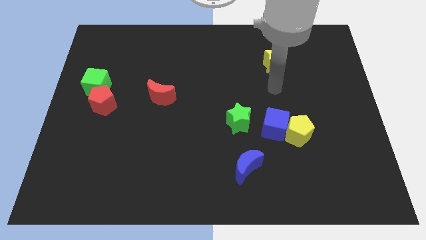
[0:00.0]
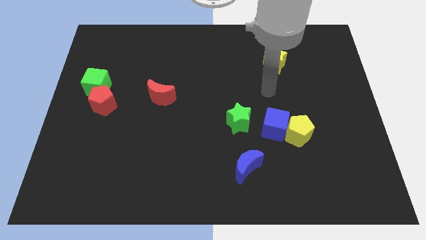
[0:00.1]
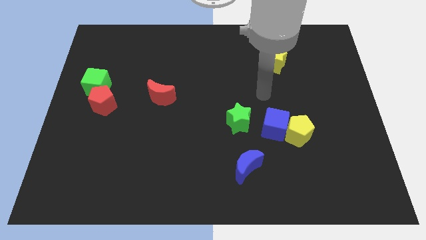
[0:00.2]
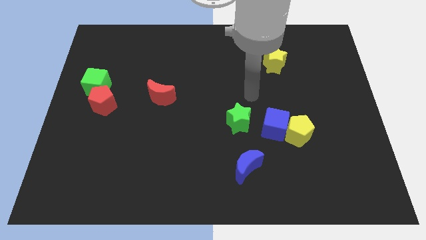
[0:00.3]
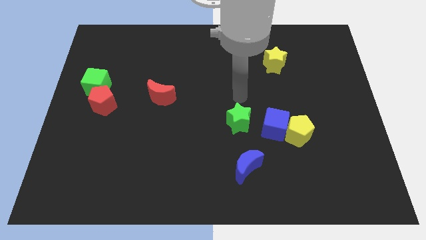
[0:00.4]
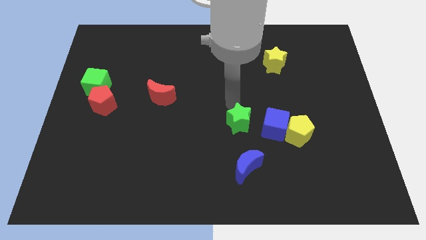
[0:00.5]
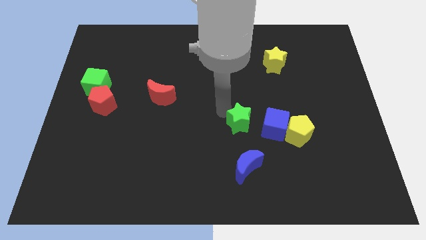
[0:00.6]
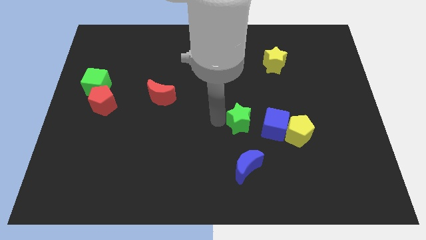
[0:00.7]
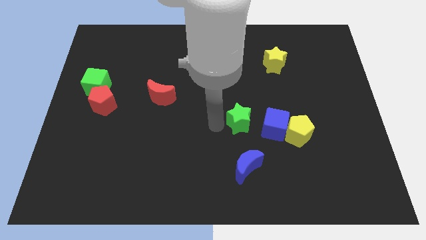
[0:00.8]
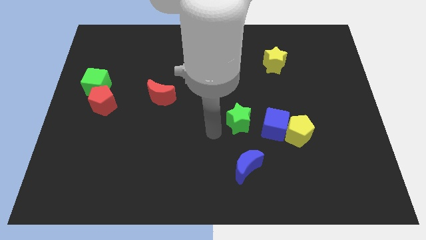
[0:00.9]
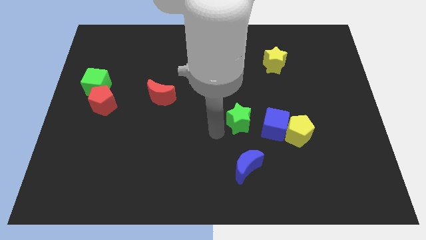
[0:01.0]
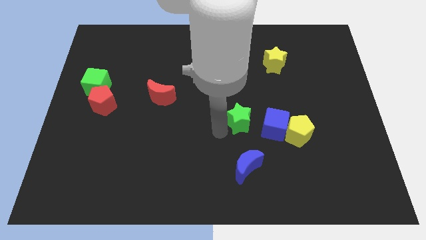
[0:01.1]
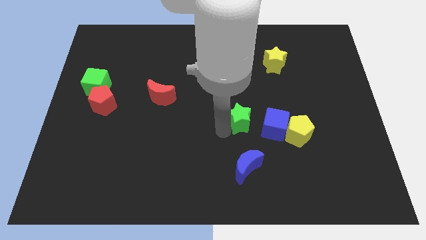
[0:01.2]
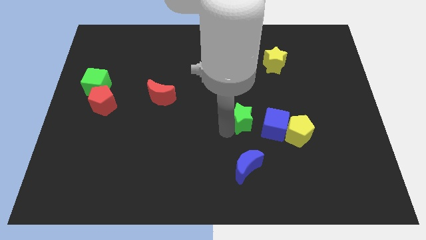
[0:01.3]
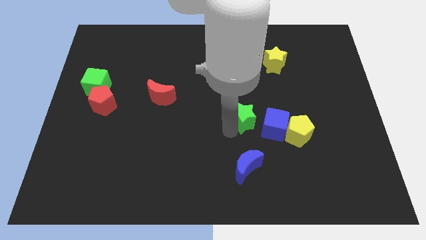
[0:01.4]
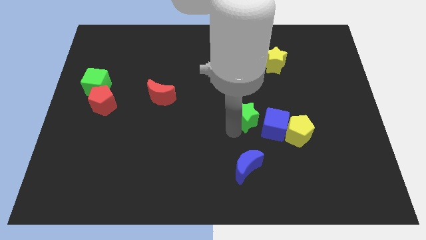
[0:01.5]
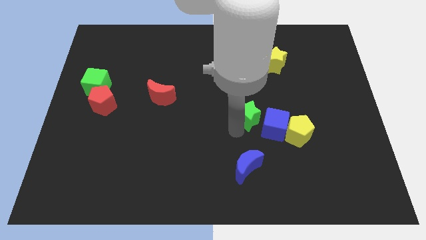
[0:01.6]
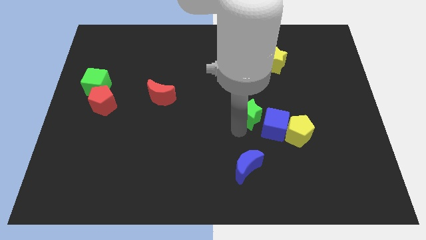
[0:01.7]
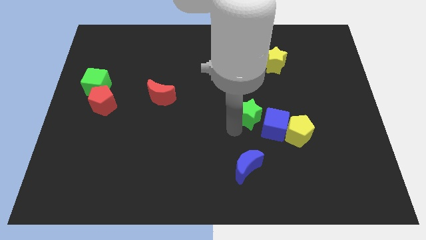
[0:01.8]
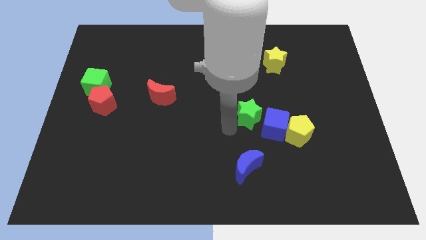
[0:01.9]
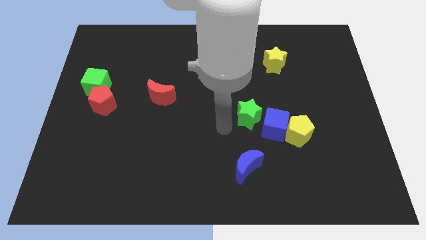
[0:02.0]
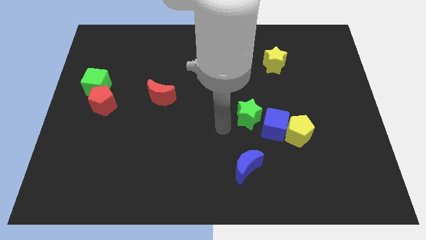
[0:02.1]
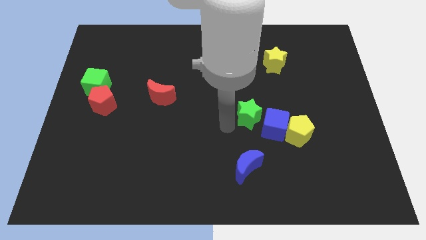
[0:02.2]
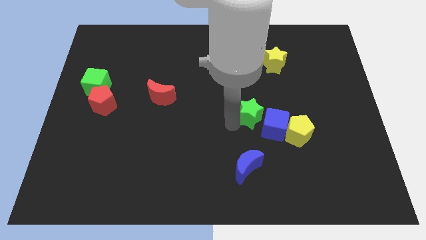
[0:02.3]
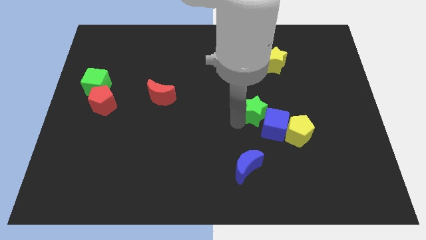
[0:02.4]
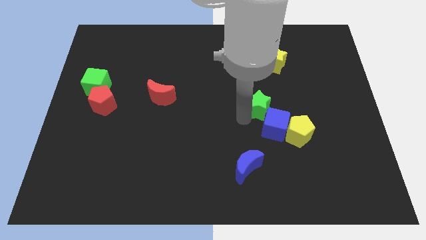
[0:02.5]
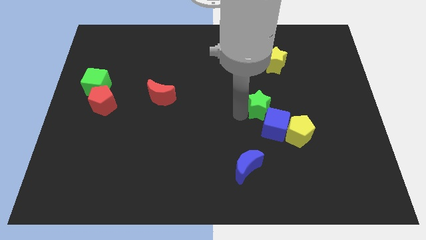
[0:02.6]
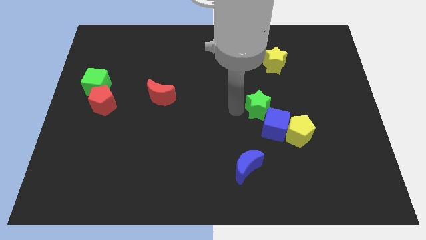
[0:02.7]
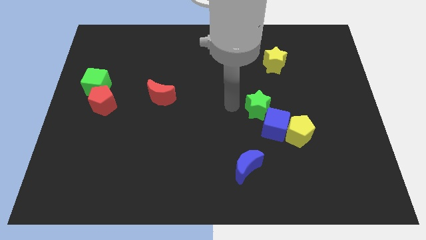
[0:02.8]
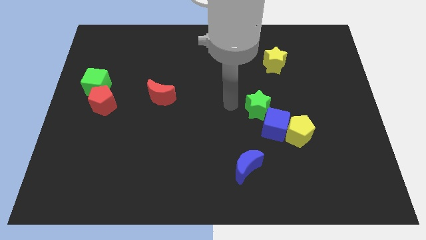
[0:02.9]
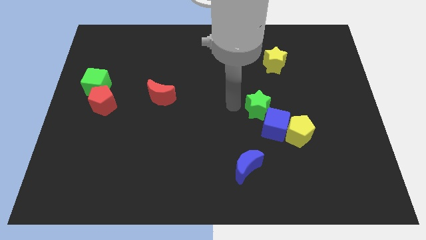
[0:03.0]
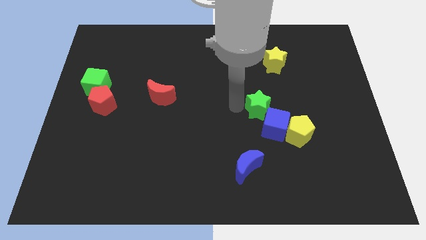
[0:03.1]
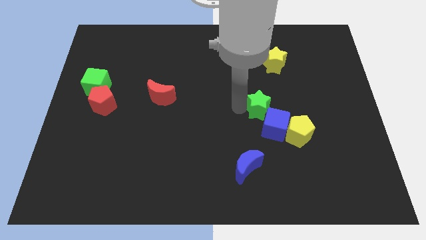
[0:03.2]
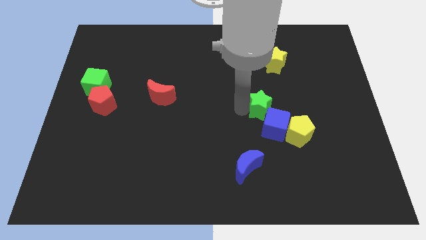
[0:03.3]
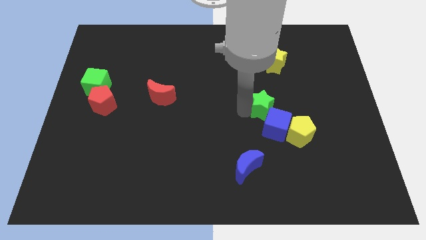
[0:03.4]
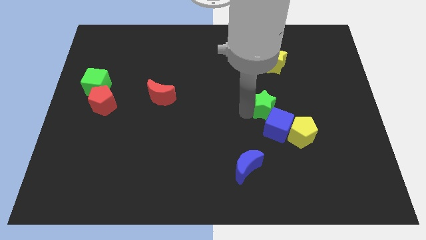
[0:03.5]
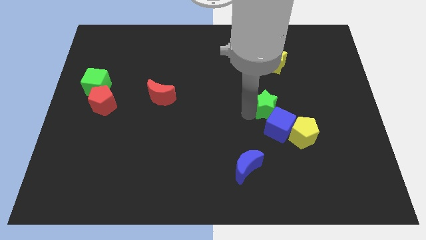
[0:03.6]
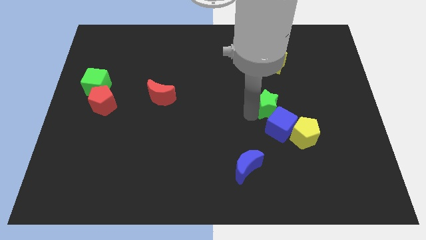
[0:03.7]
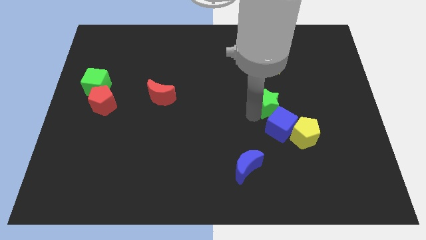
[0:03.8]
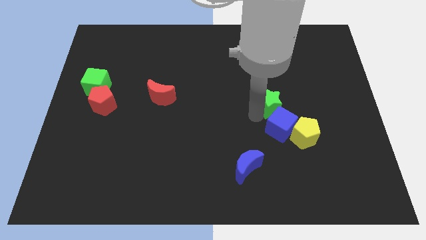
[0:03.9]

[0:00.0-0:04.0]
slide the green star right a bit

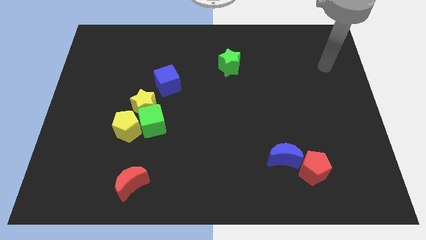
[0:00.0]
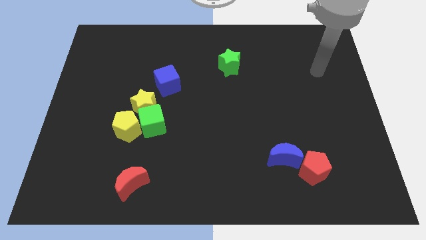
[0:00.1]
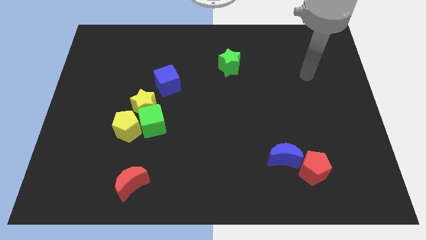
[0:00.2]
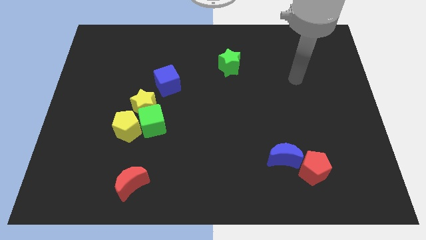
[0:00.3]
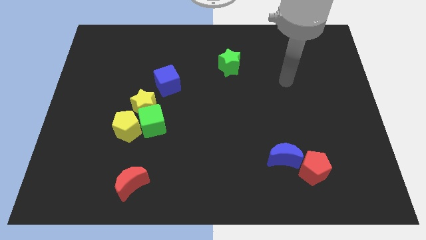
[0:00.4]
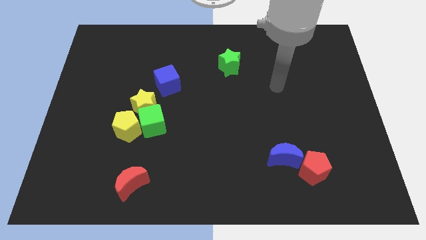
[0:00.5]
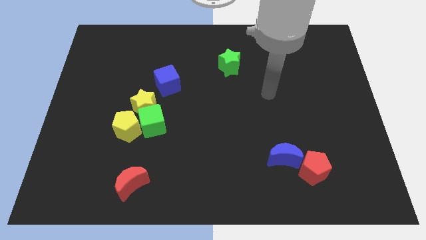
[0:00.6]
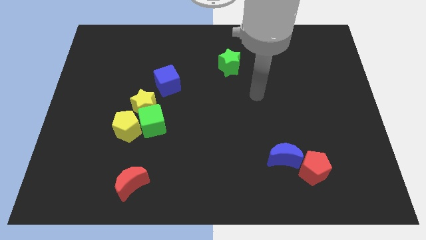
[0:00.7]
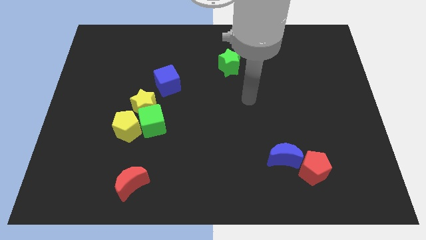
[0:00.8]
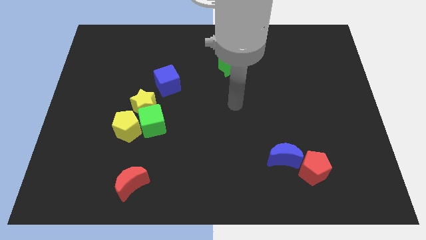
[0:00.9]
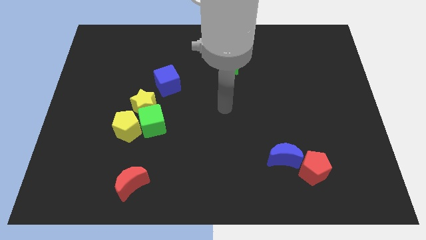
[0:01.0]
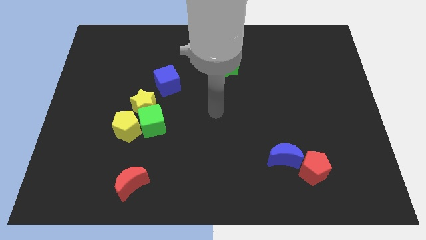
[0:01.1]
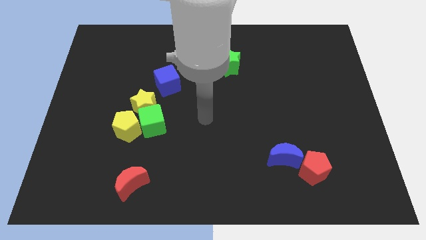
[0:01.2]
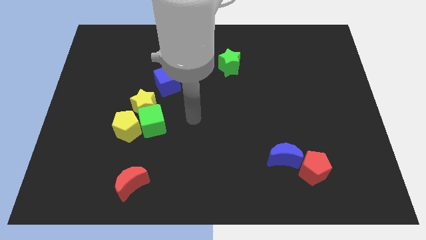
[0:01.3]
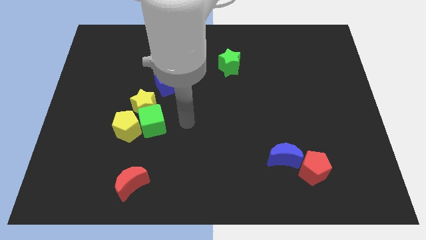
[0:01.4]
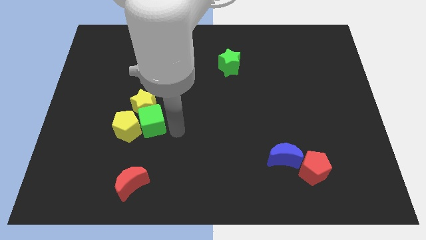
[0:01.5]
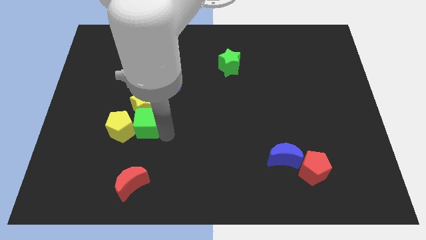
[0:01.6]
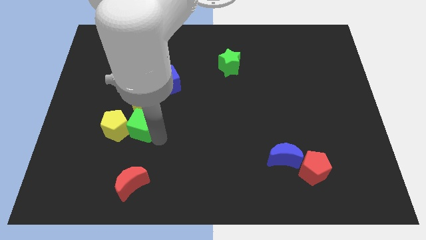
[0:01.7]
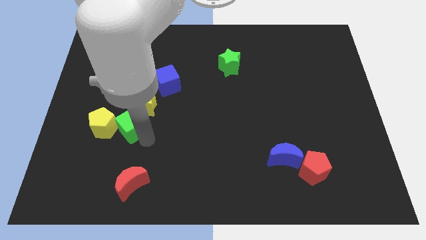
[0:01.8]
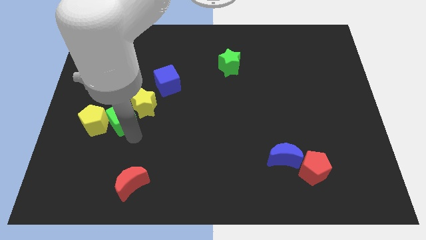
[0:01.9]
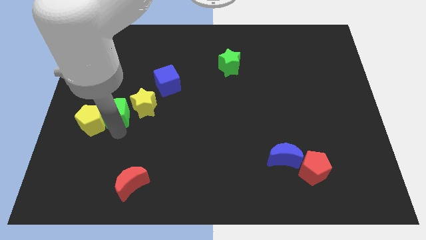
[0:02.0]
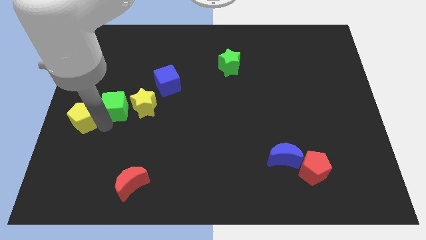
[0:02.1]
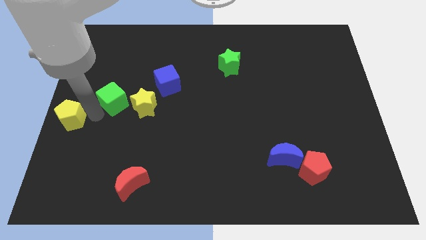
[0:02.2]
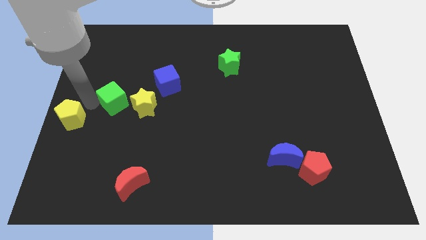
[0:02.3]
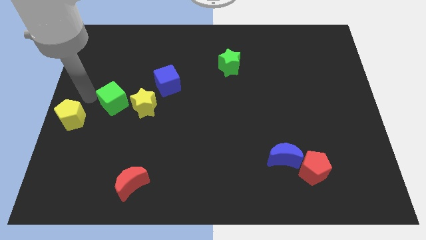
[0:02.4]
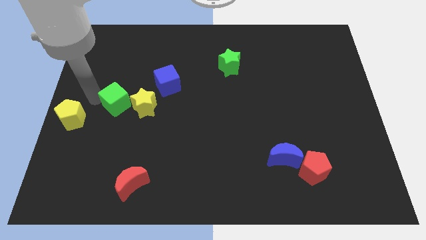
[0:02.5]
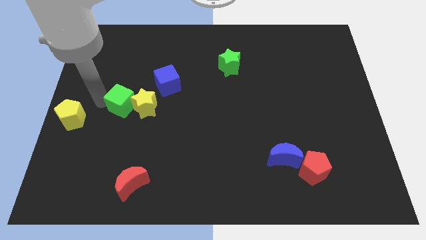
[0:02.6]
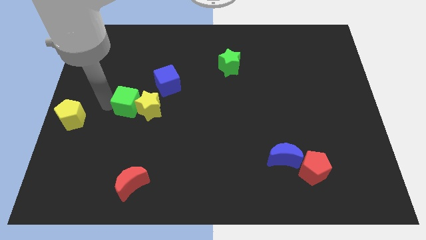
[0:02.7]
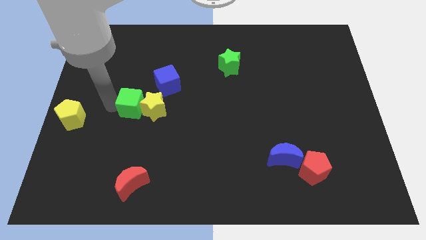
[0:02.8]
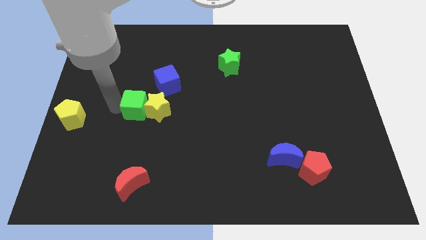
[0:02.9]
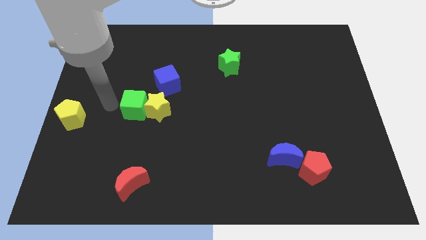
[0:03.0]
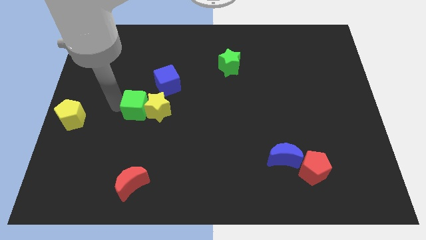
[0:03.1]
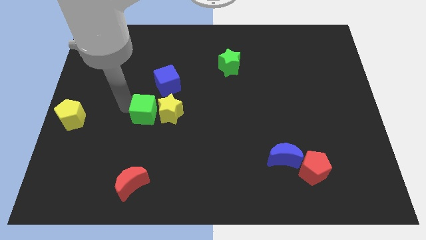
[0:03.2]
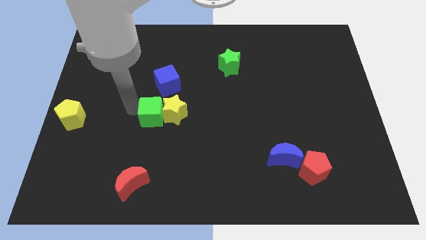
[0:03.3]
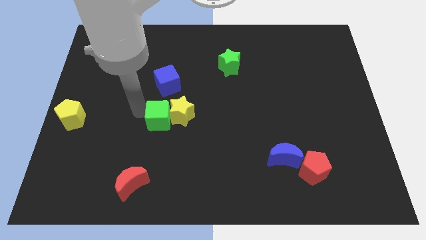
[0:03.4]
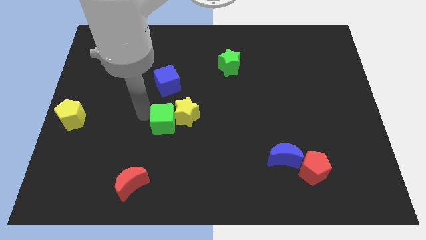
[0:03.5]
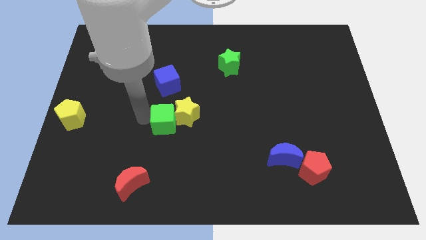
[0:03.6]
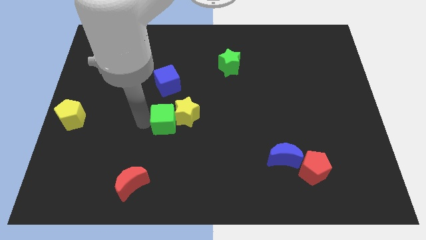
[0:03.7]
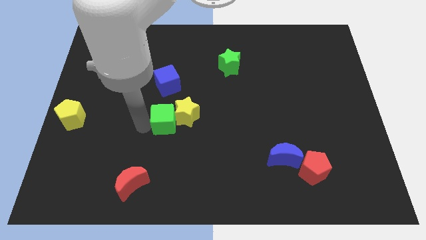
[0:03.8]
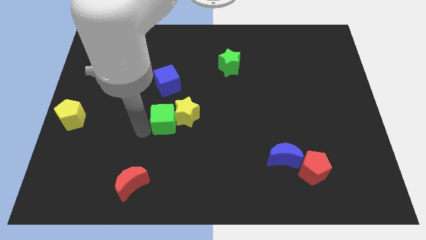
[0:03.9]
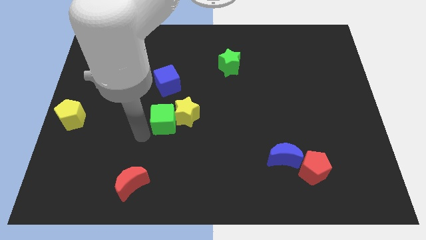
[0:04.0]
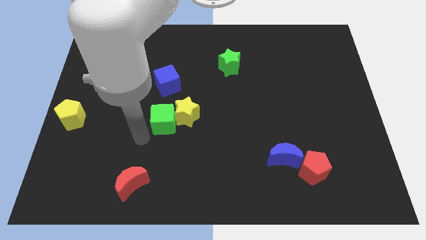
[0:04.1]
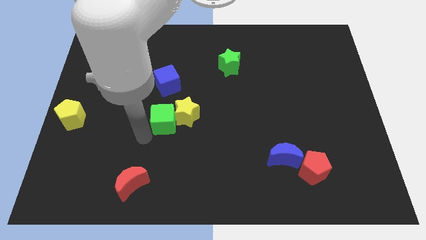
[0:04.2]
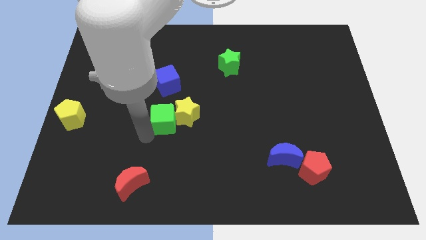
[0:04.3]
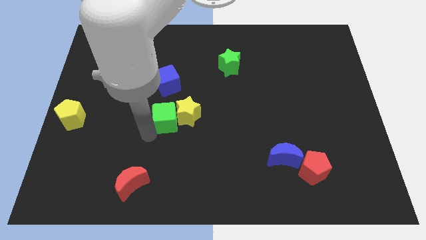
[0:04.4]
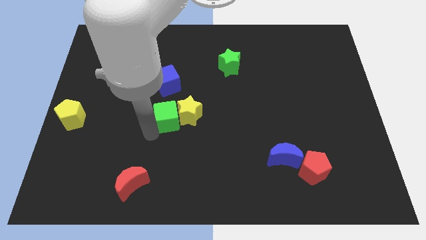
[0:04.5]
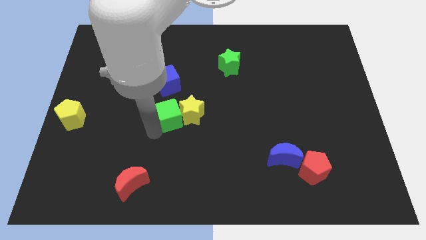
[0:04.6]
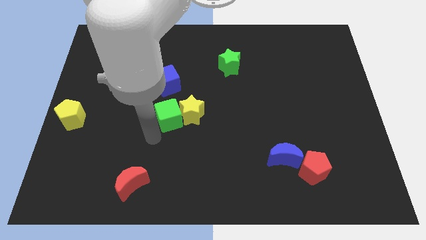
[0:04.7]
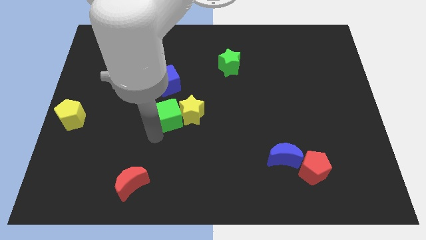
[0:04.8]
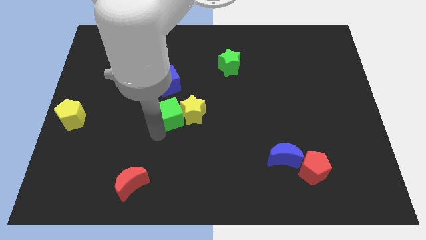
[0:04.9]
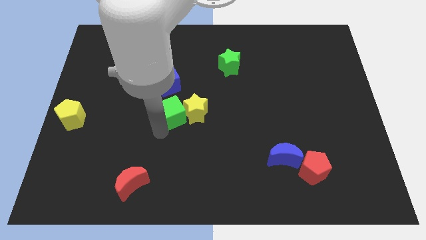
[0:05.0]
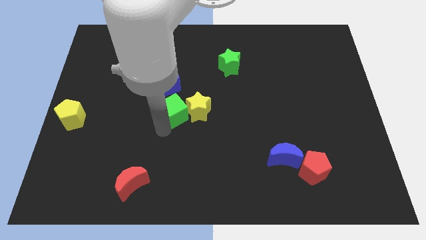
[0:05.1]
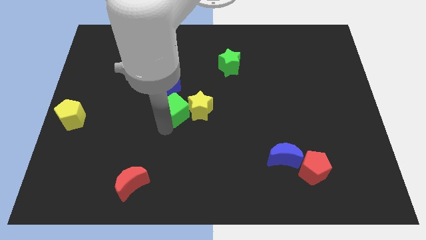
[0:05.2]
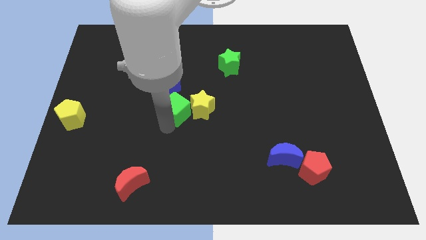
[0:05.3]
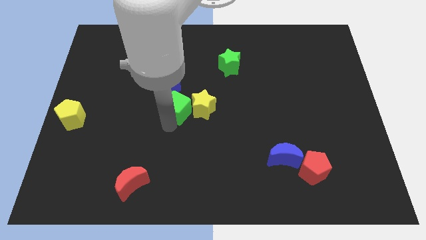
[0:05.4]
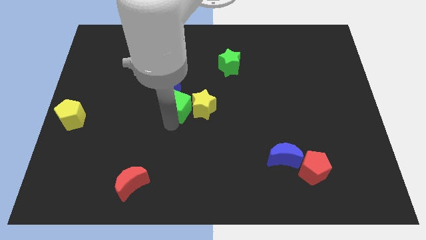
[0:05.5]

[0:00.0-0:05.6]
push the green cube diagonally upwards and right a bit
